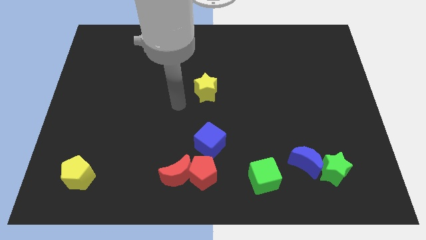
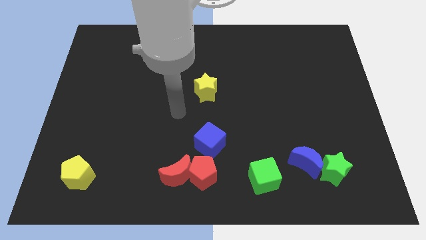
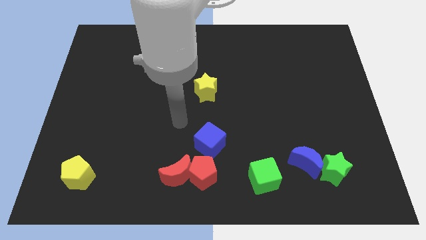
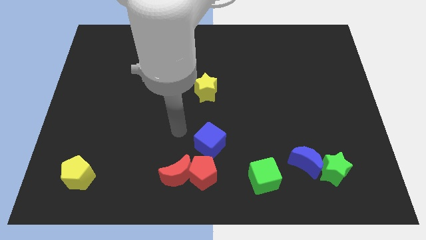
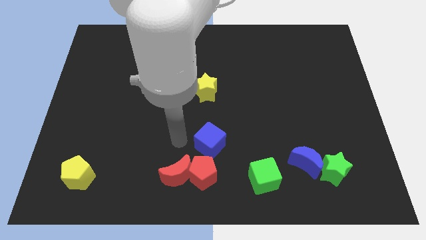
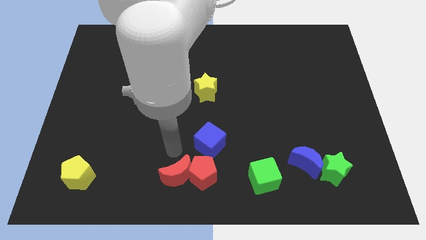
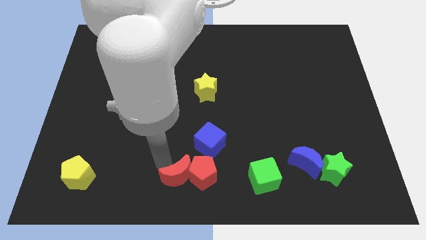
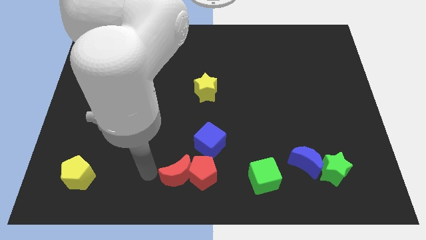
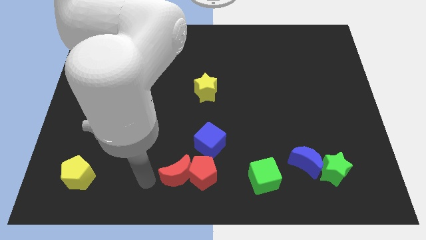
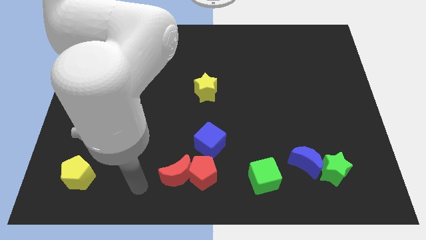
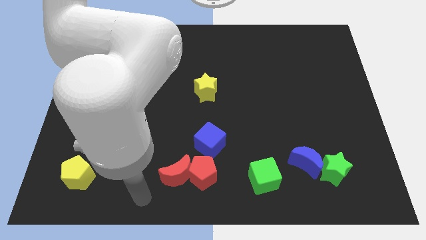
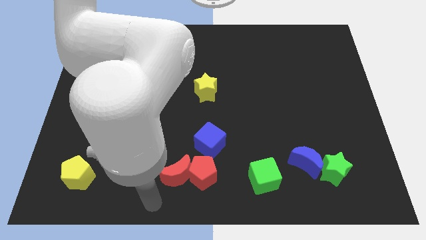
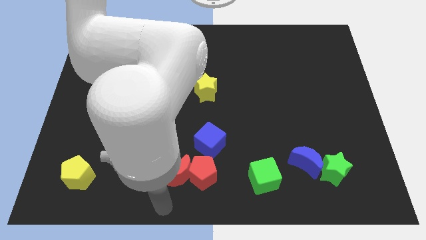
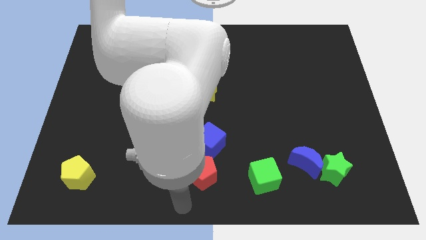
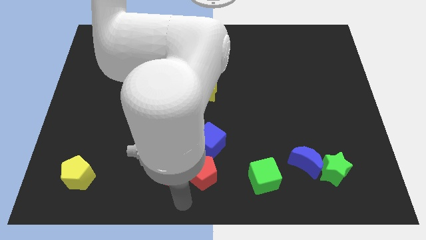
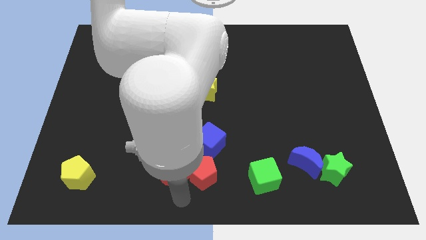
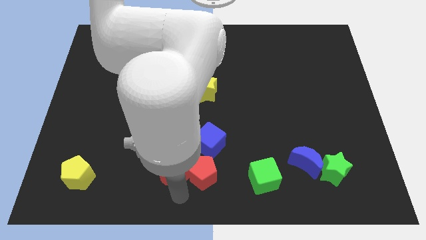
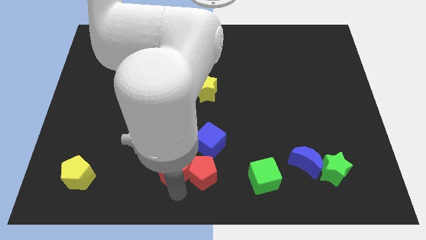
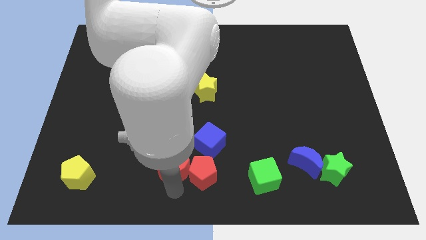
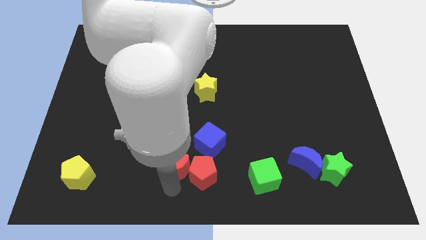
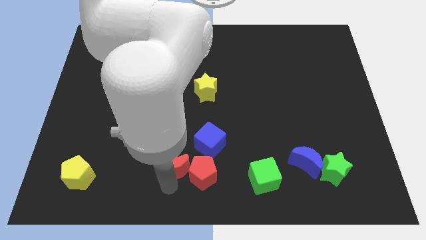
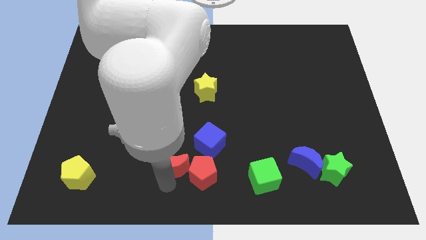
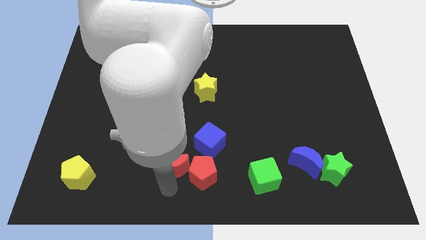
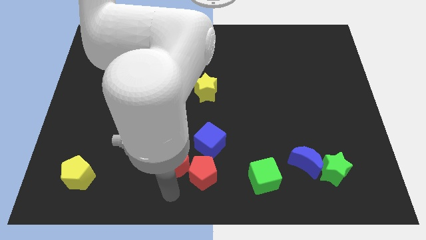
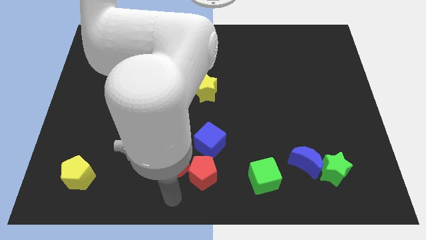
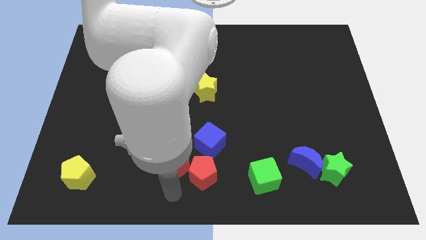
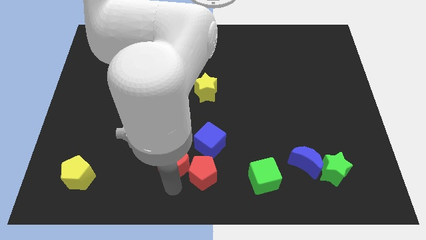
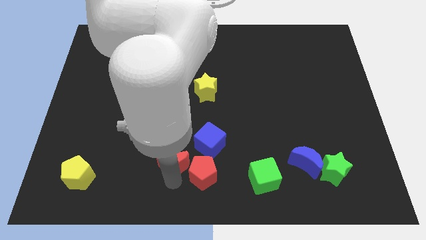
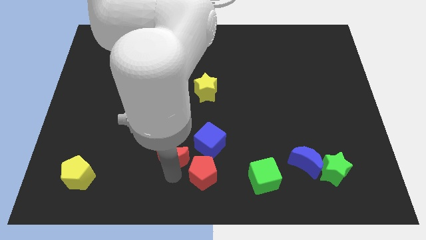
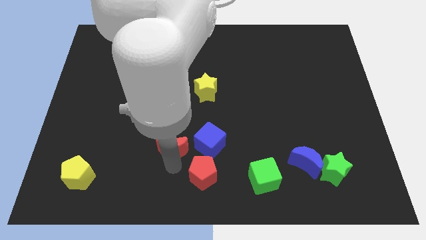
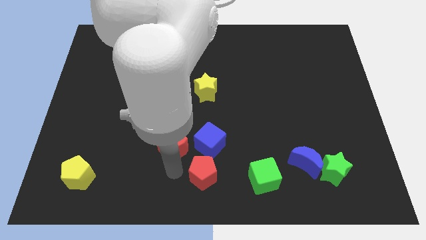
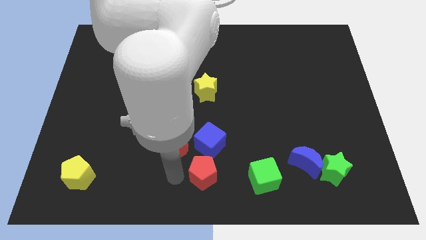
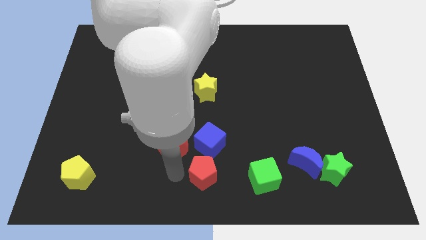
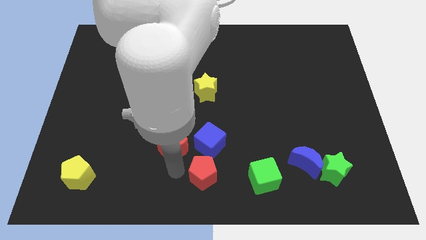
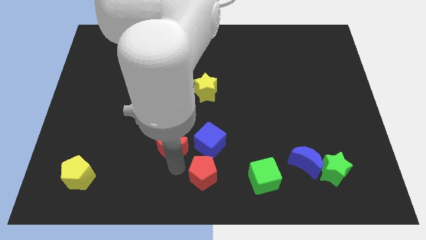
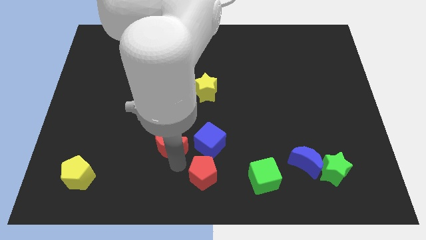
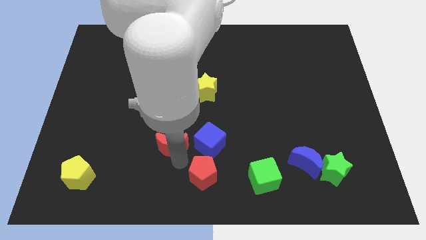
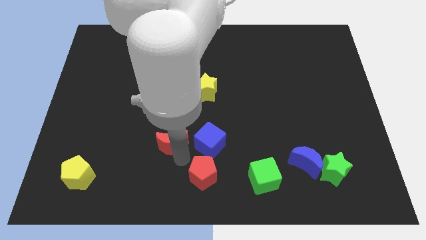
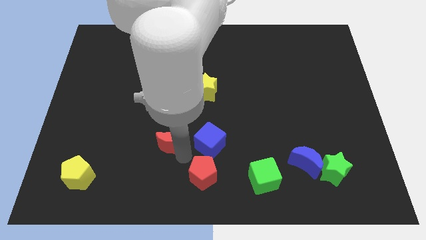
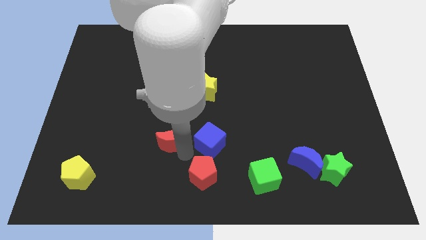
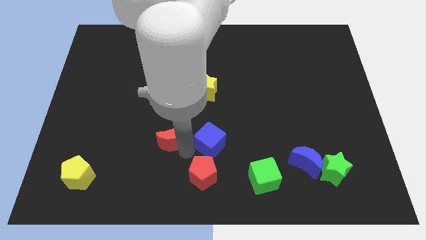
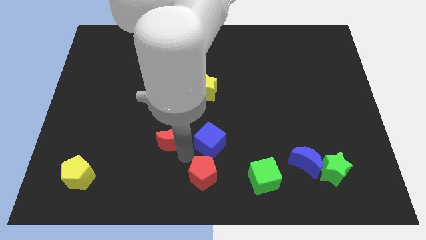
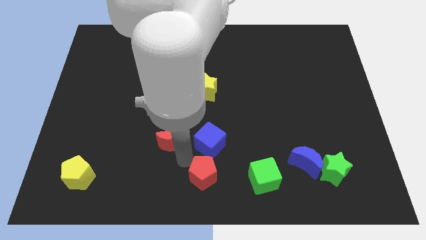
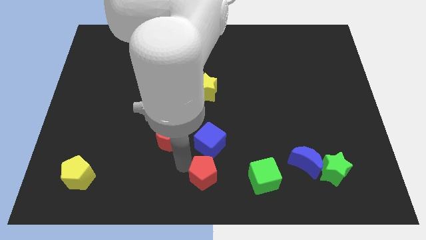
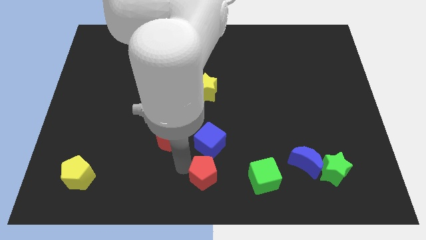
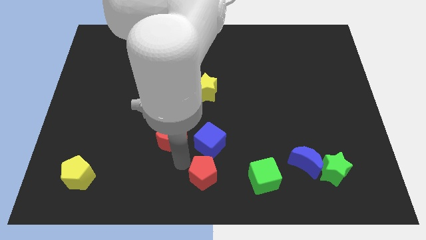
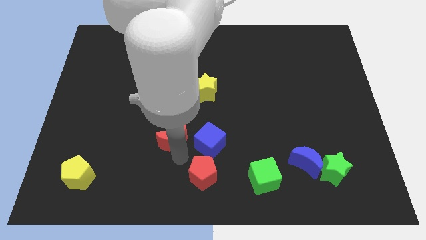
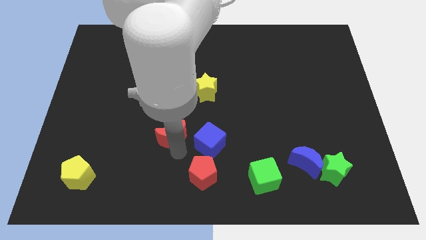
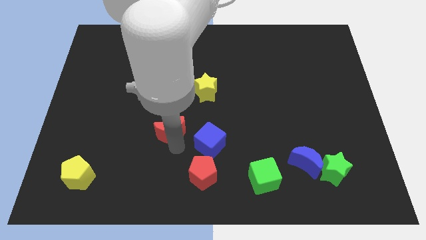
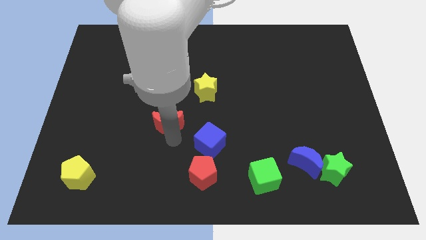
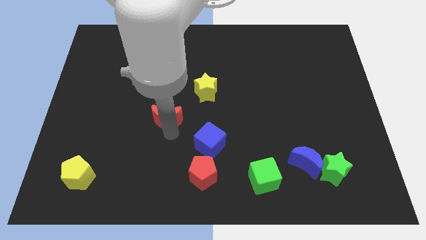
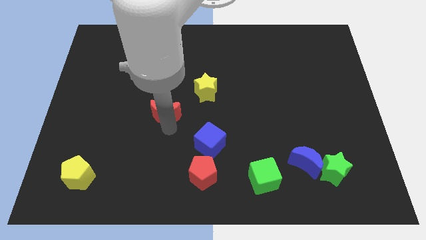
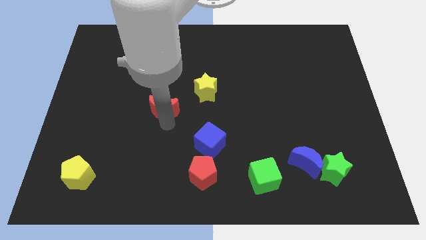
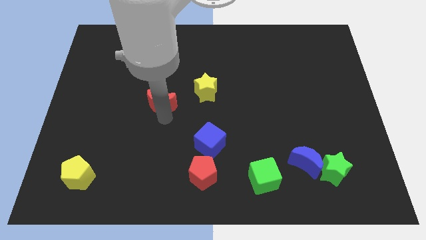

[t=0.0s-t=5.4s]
slide the red moon to the left of the yellow star

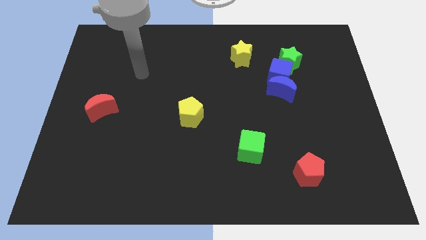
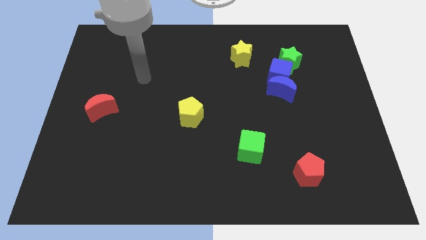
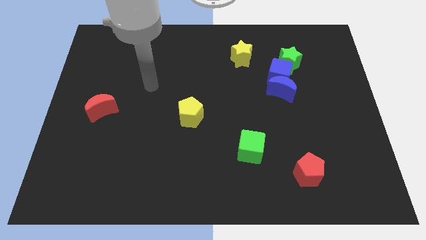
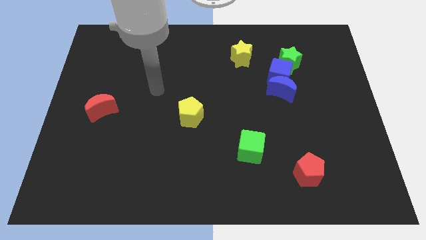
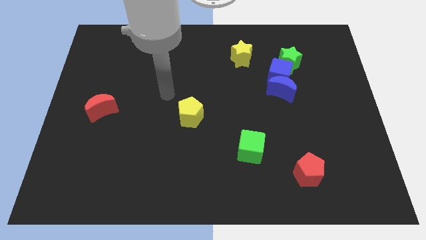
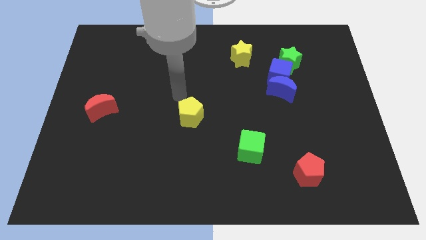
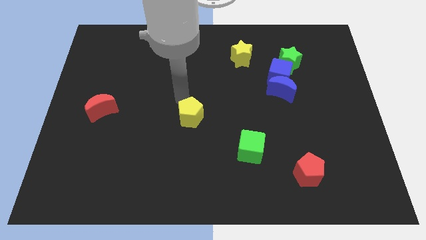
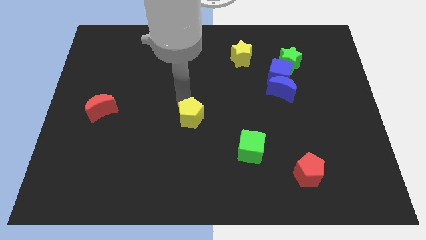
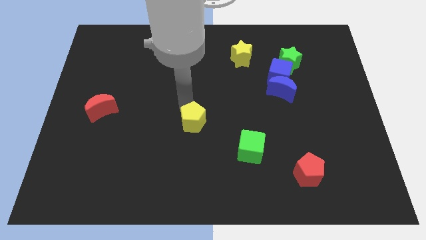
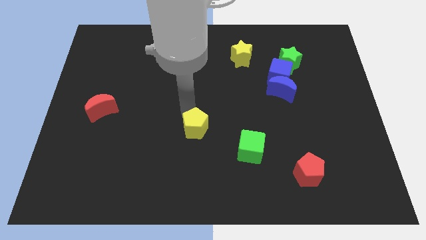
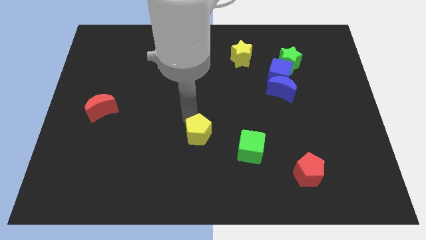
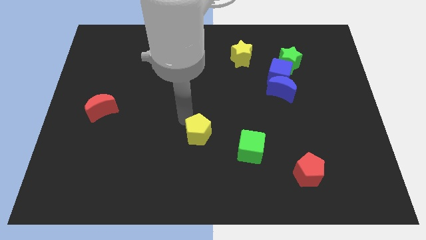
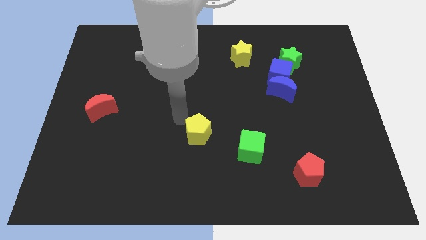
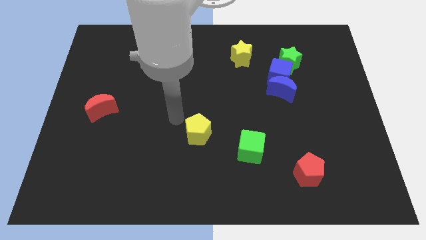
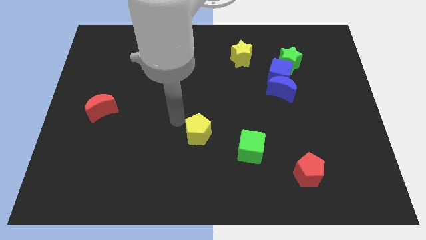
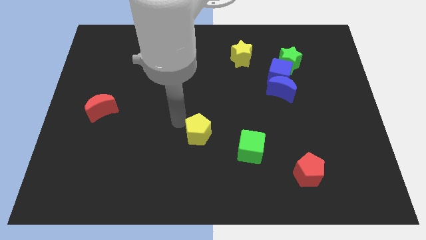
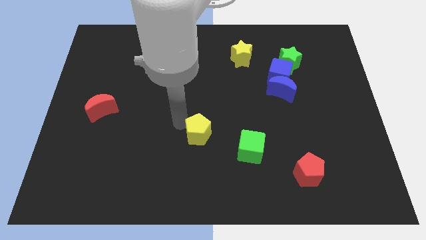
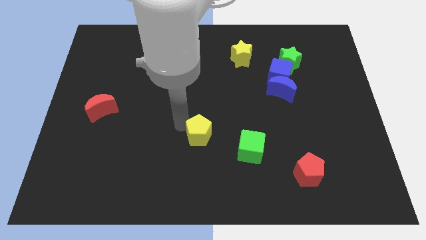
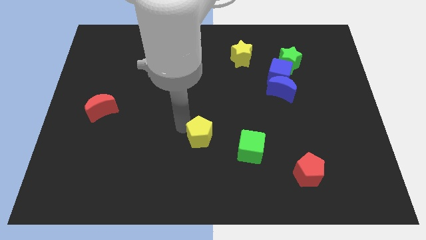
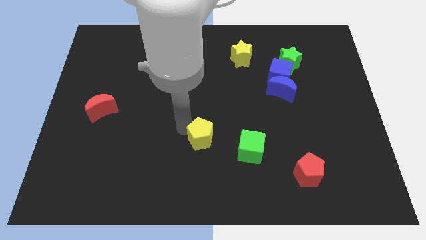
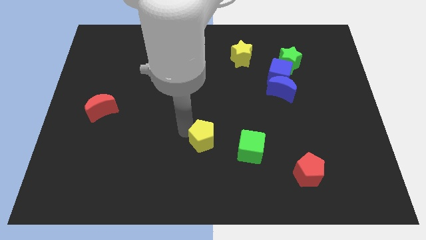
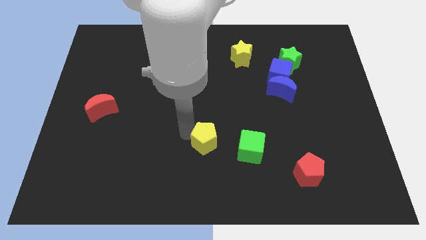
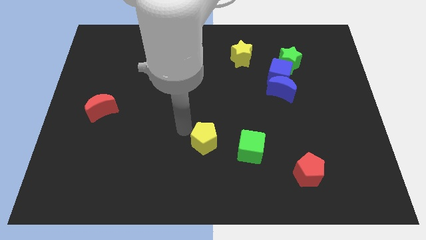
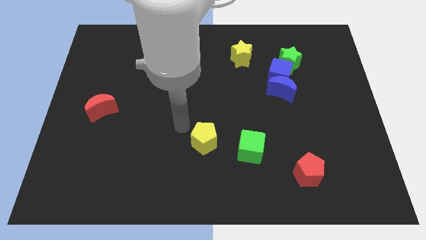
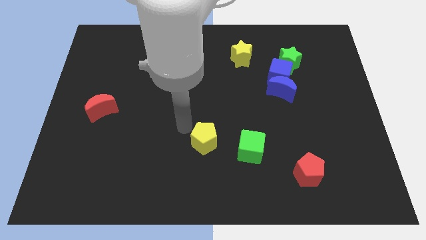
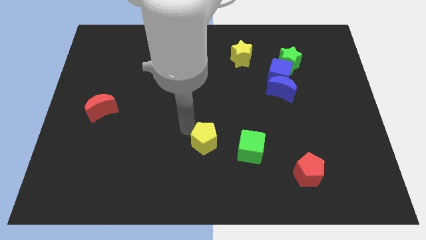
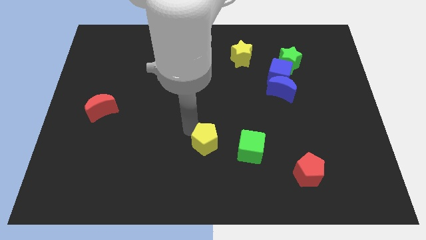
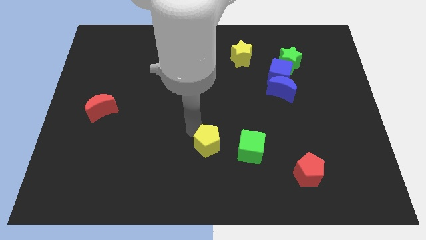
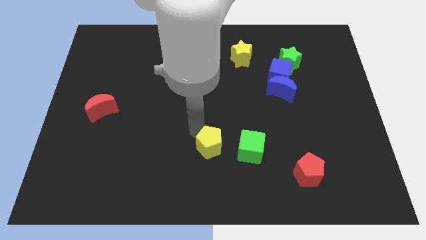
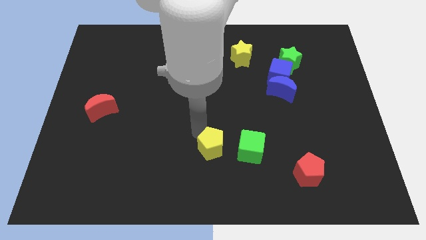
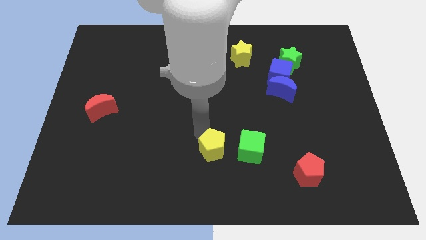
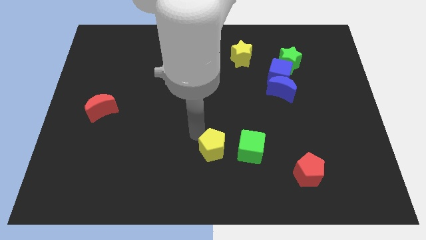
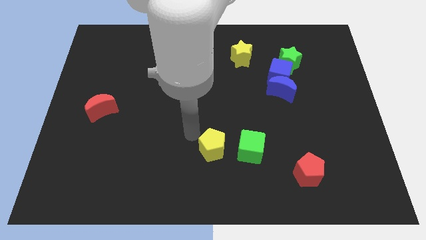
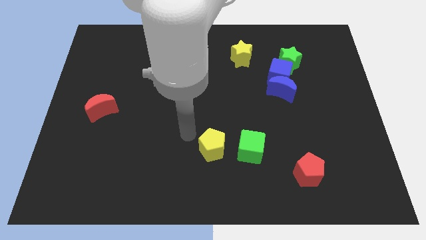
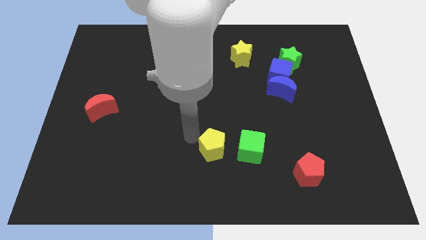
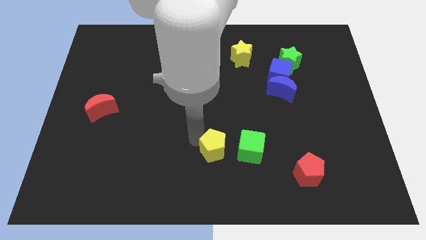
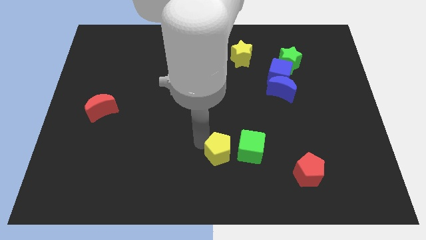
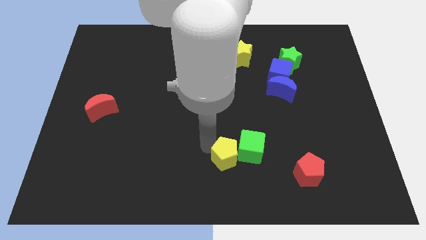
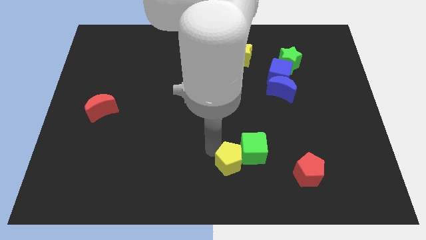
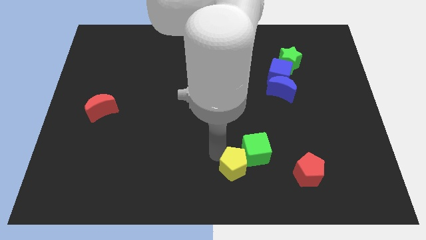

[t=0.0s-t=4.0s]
move the yellow pentagon left of the red pentagon
